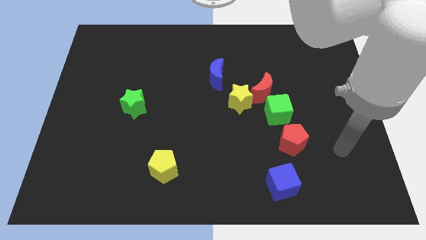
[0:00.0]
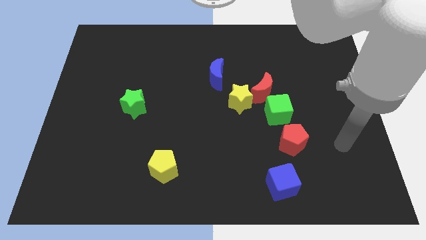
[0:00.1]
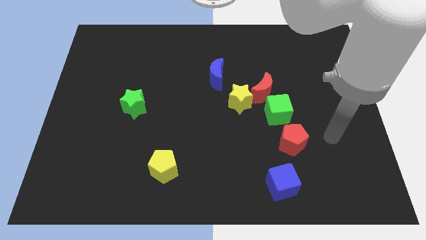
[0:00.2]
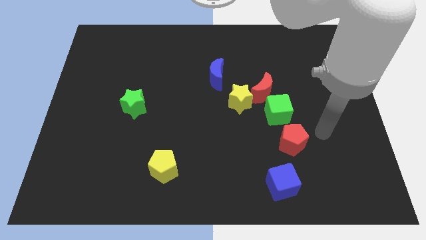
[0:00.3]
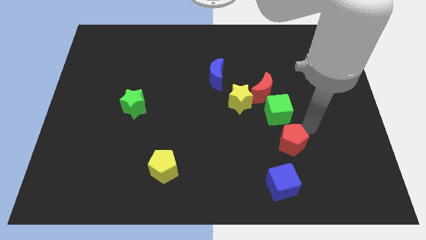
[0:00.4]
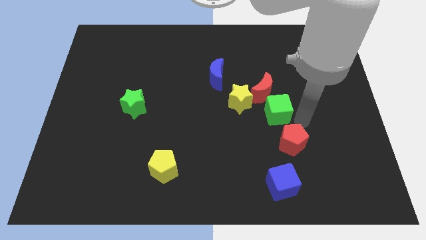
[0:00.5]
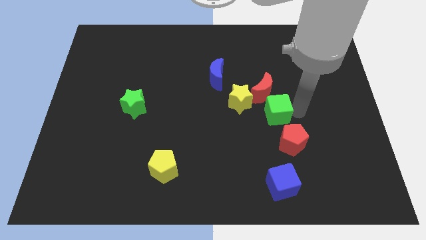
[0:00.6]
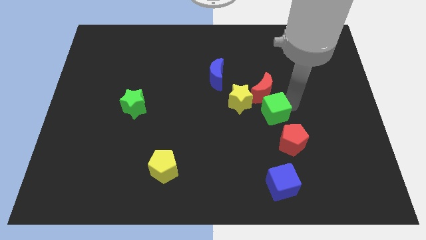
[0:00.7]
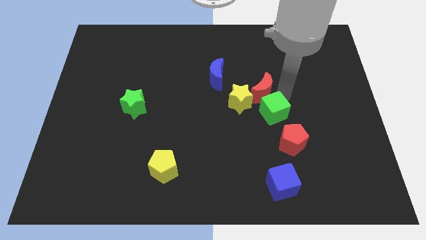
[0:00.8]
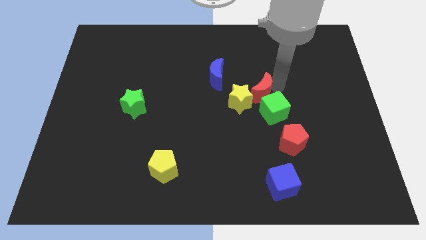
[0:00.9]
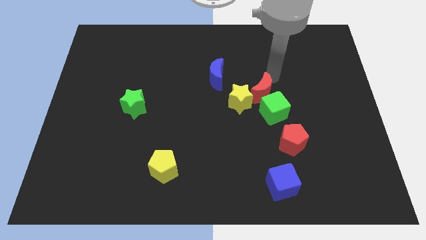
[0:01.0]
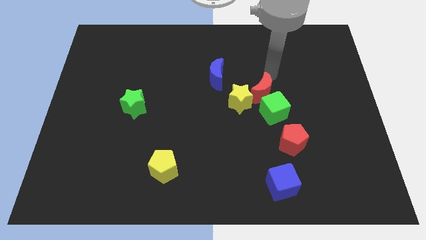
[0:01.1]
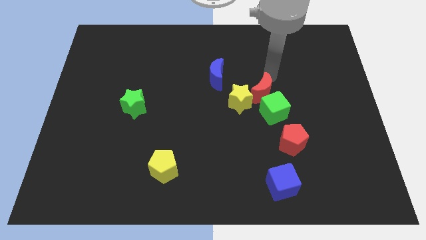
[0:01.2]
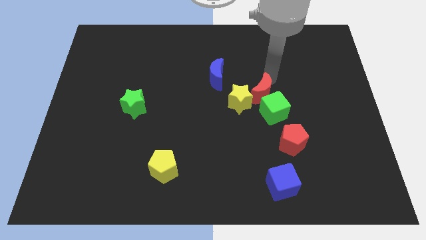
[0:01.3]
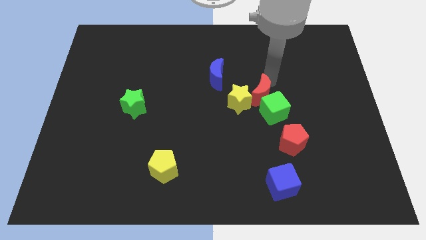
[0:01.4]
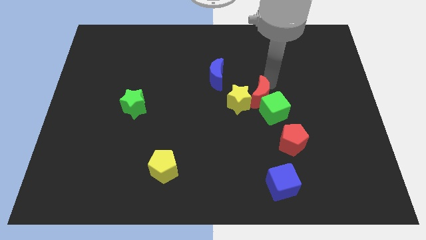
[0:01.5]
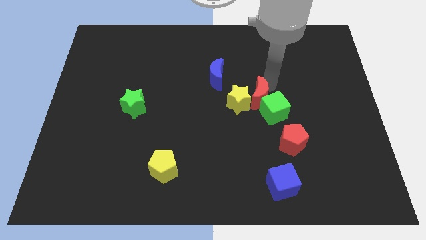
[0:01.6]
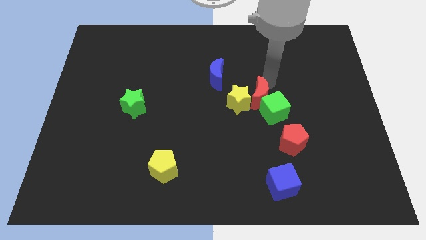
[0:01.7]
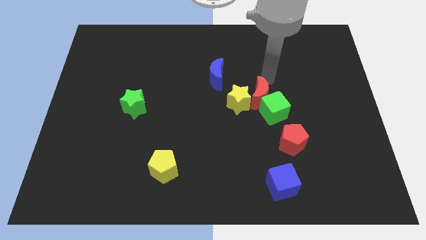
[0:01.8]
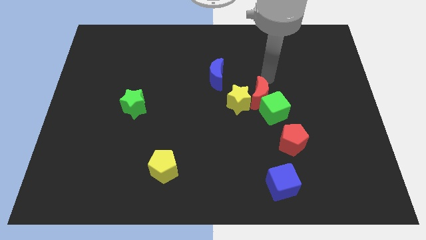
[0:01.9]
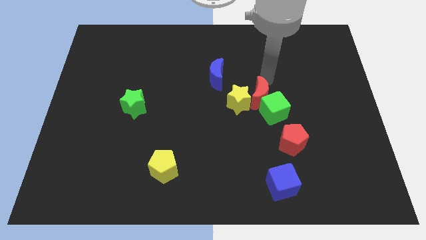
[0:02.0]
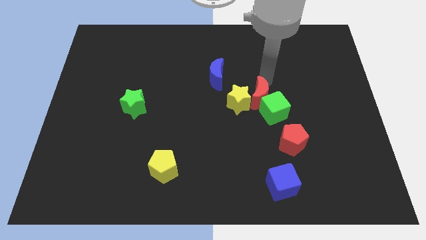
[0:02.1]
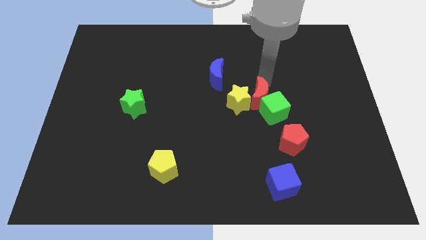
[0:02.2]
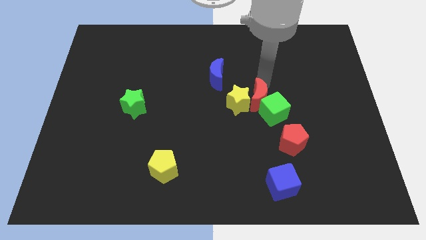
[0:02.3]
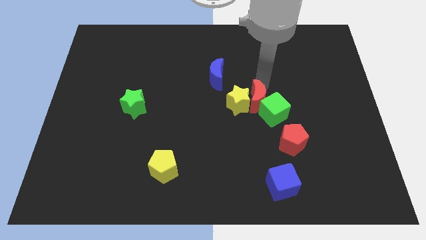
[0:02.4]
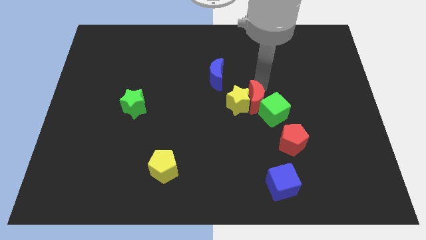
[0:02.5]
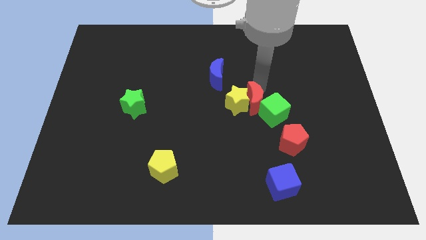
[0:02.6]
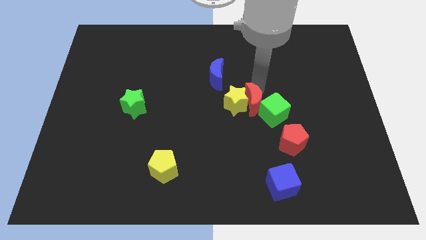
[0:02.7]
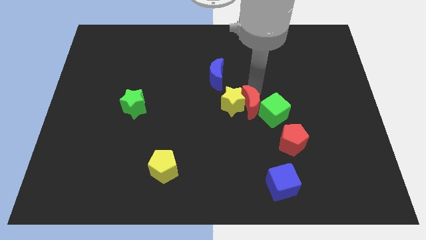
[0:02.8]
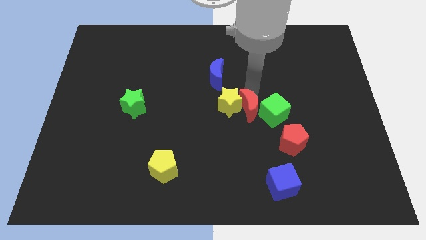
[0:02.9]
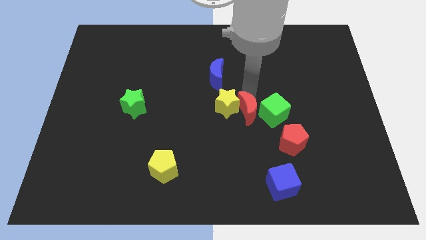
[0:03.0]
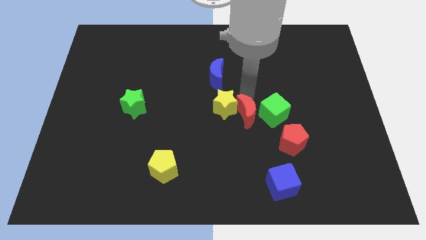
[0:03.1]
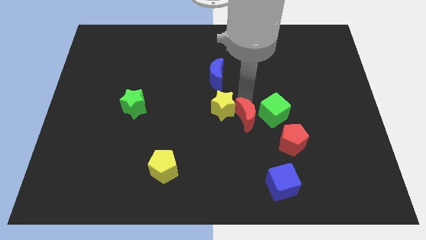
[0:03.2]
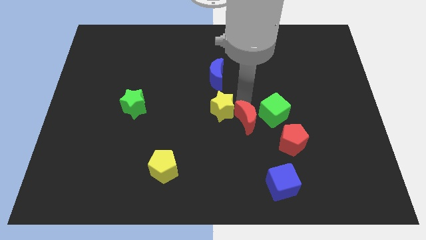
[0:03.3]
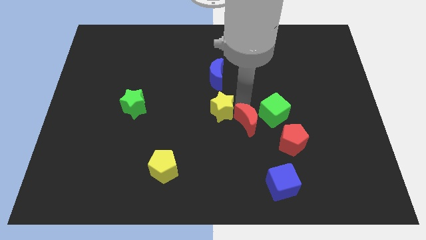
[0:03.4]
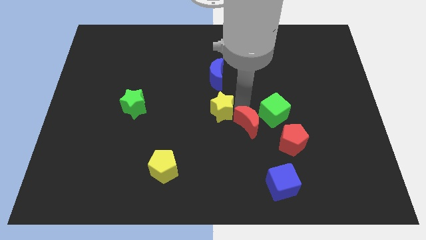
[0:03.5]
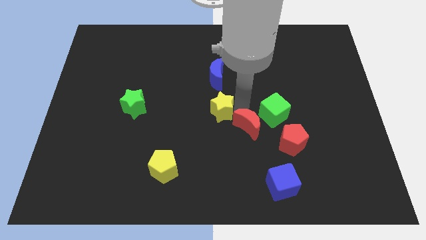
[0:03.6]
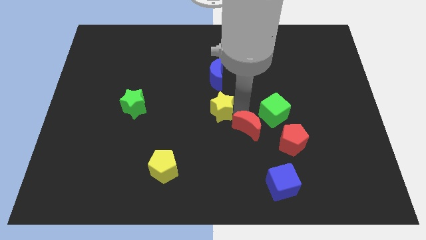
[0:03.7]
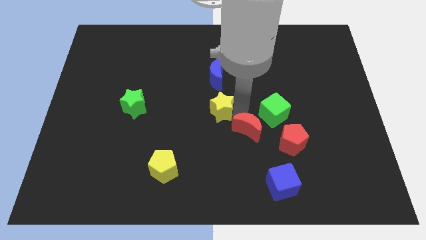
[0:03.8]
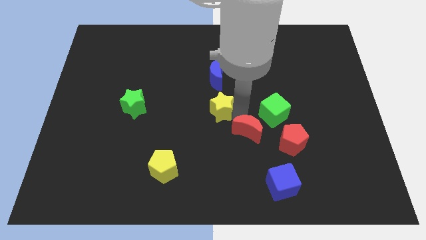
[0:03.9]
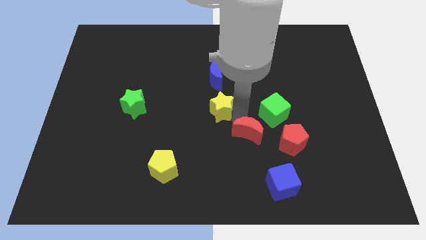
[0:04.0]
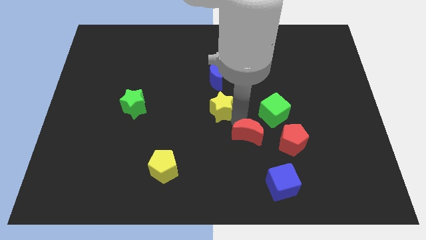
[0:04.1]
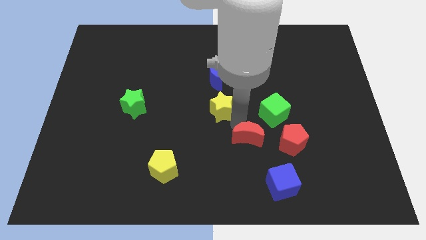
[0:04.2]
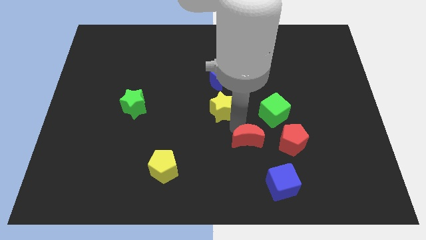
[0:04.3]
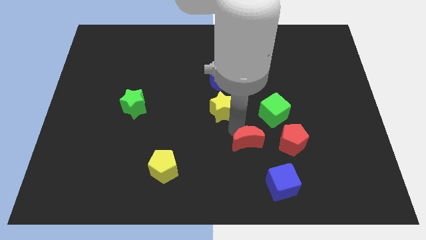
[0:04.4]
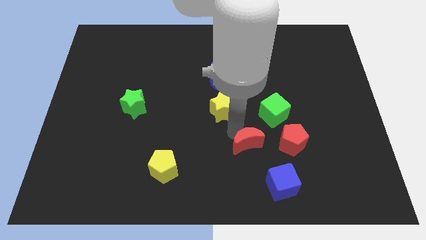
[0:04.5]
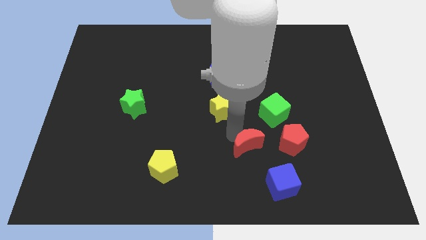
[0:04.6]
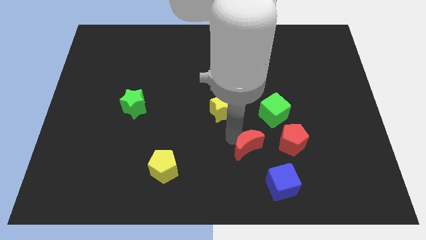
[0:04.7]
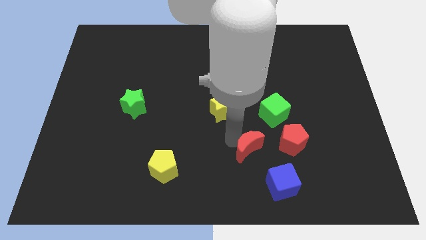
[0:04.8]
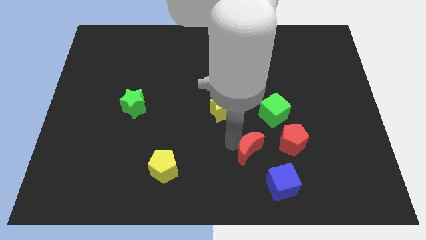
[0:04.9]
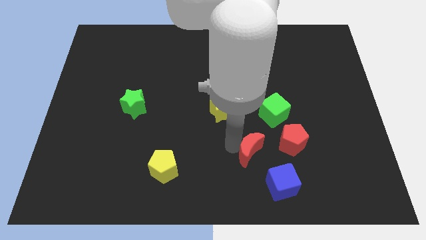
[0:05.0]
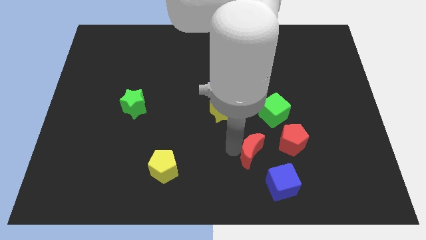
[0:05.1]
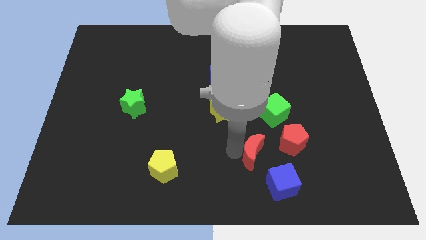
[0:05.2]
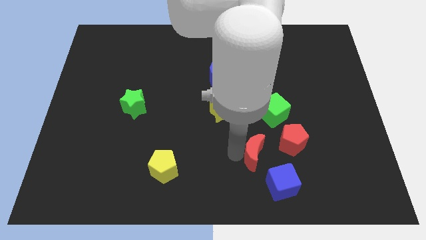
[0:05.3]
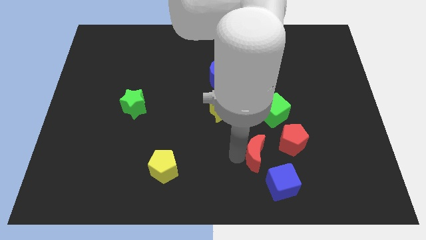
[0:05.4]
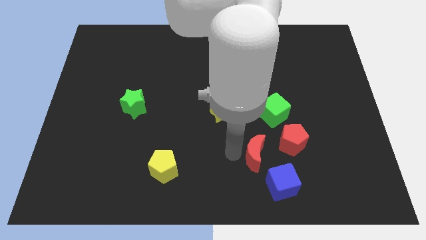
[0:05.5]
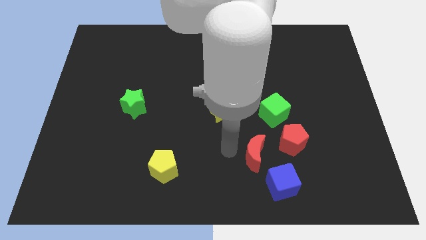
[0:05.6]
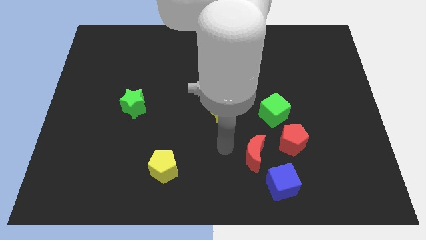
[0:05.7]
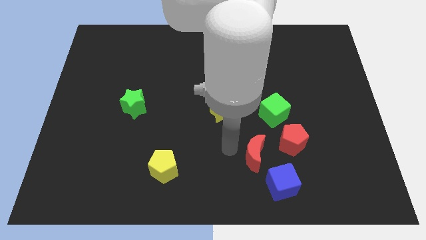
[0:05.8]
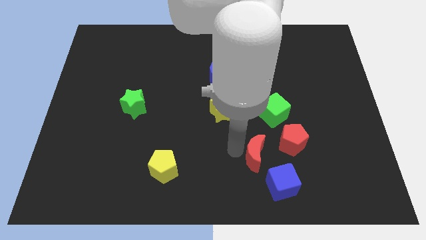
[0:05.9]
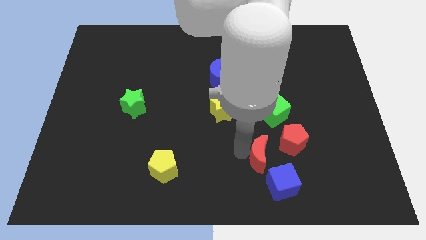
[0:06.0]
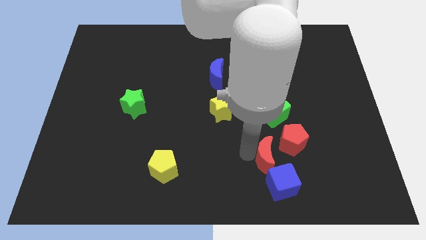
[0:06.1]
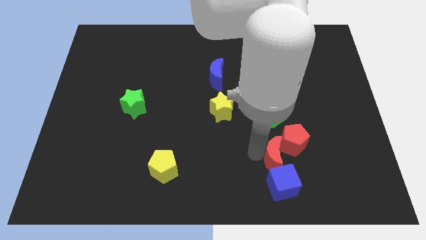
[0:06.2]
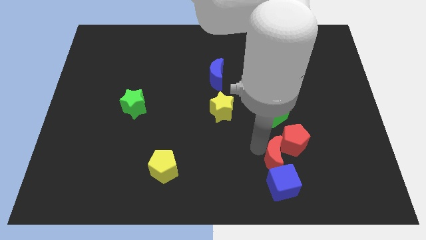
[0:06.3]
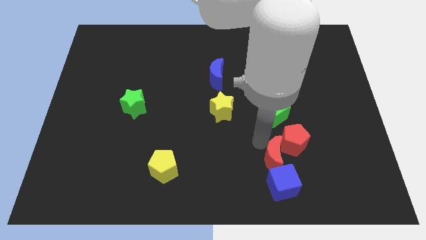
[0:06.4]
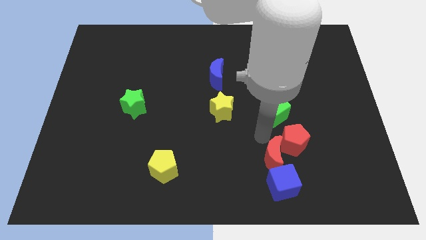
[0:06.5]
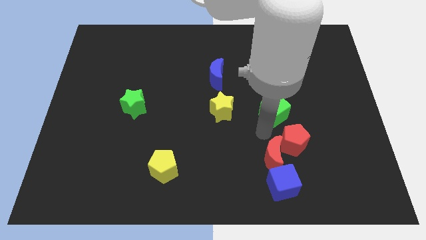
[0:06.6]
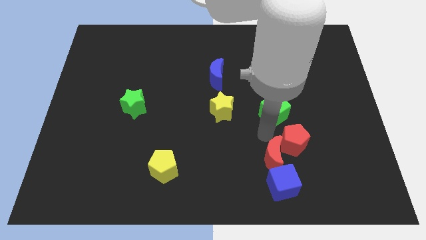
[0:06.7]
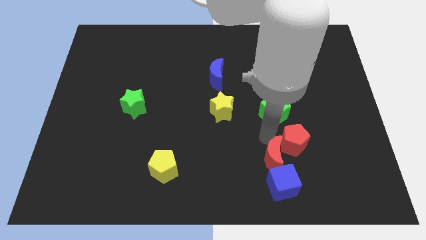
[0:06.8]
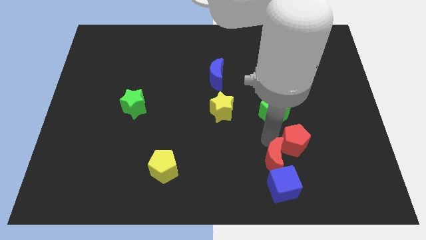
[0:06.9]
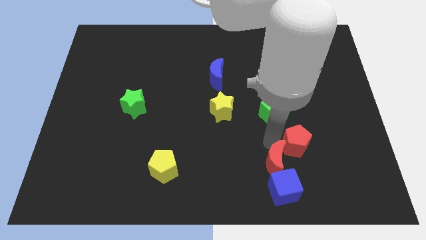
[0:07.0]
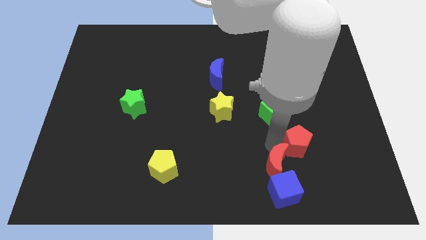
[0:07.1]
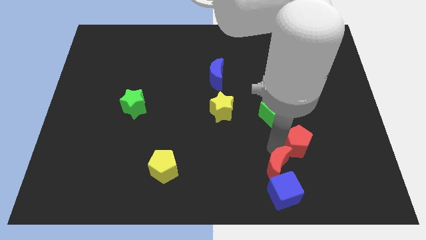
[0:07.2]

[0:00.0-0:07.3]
put the red moon next to the blue cube
